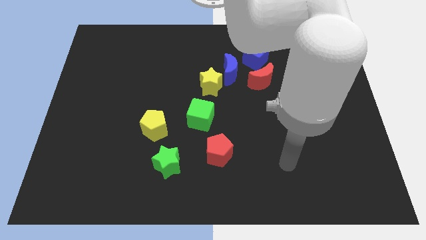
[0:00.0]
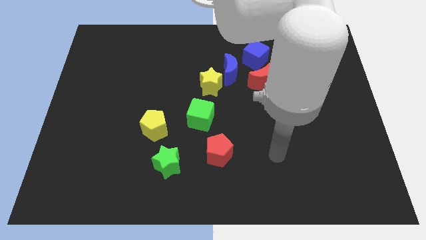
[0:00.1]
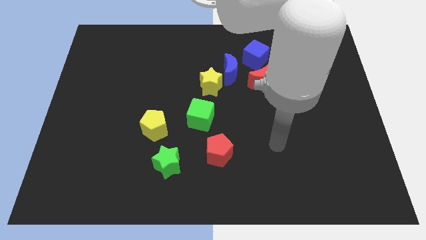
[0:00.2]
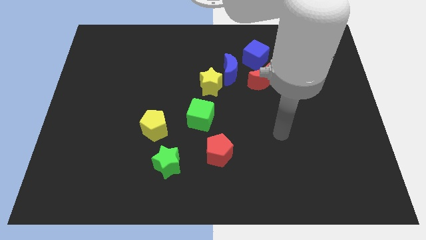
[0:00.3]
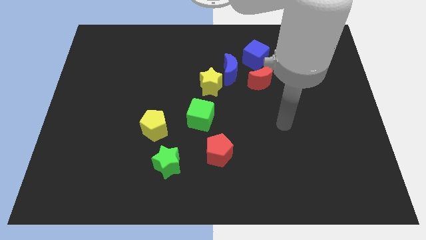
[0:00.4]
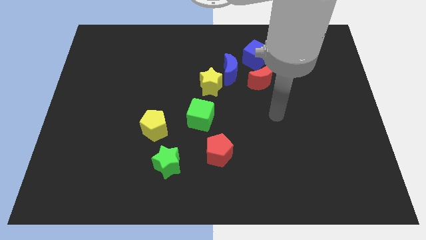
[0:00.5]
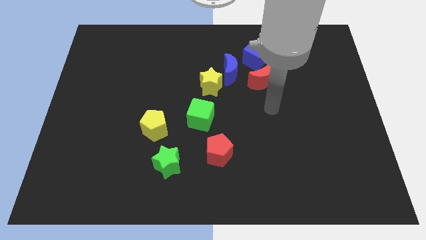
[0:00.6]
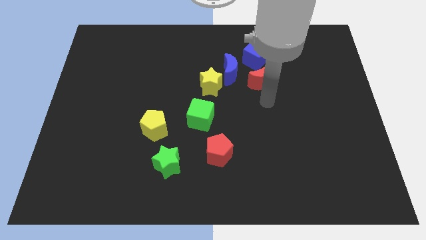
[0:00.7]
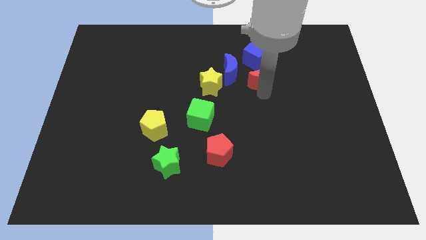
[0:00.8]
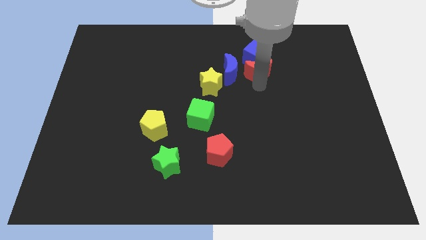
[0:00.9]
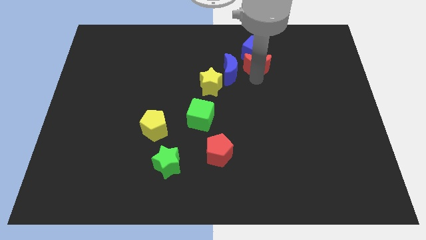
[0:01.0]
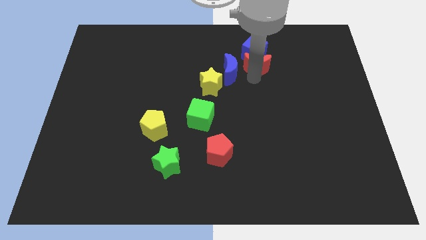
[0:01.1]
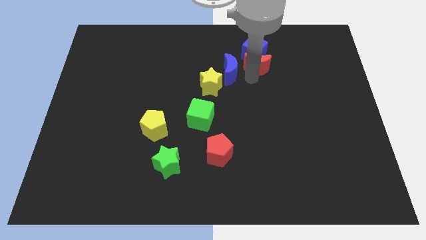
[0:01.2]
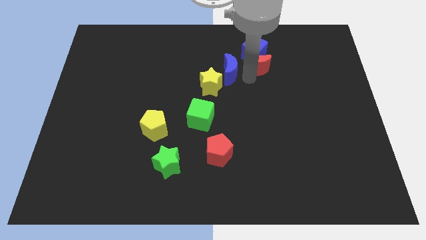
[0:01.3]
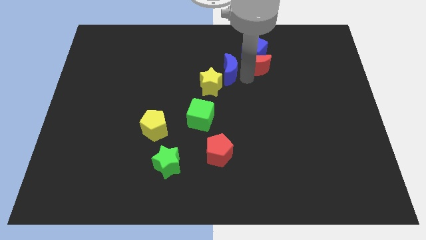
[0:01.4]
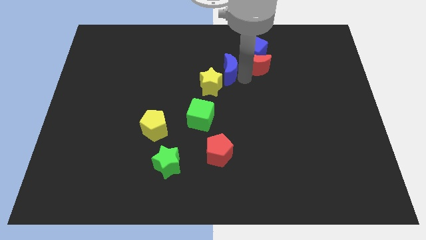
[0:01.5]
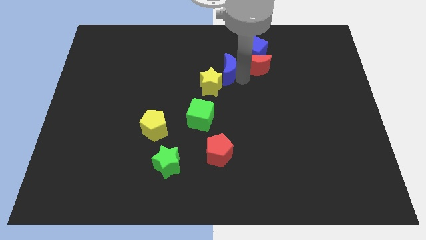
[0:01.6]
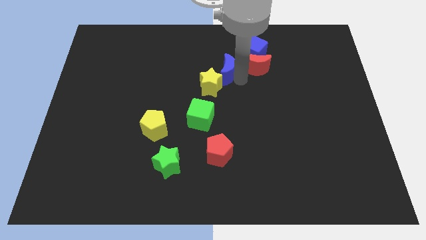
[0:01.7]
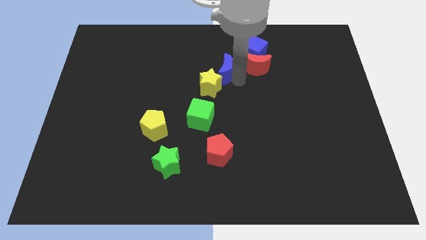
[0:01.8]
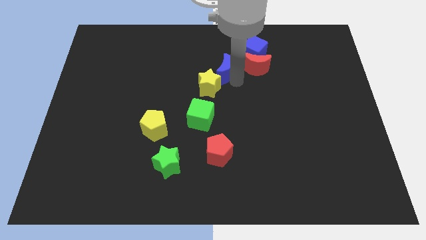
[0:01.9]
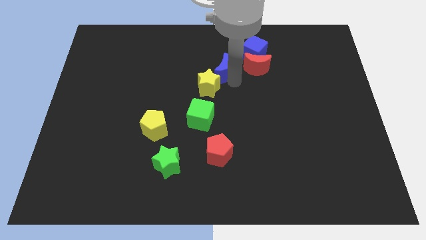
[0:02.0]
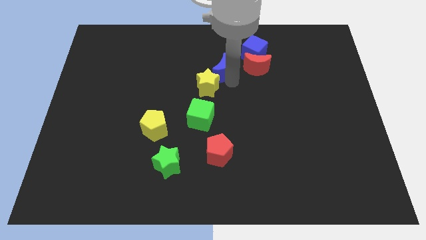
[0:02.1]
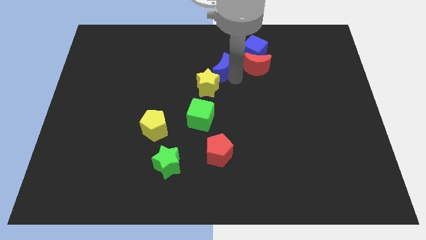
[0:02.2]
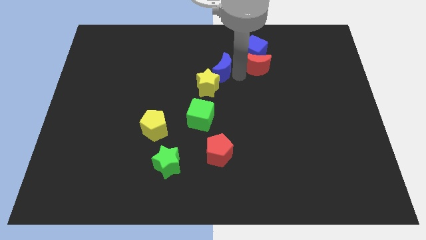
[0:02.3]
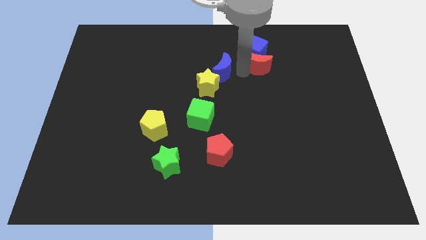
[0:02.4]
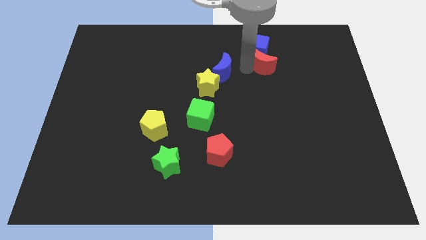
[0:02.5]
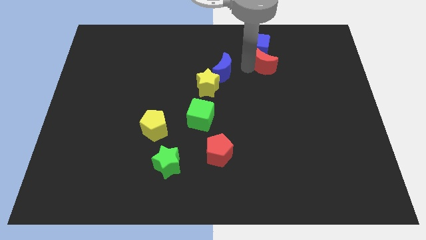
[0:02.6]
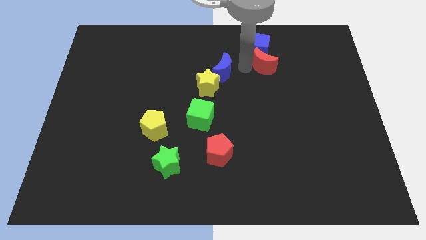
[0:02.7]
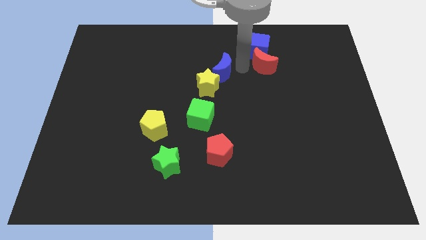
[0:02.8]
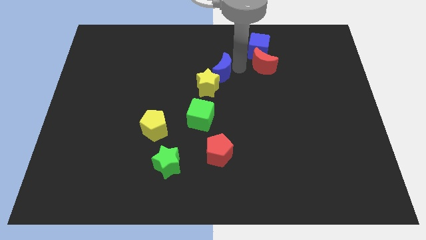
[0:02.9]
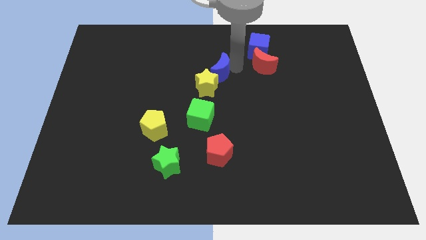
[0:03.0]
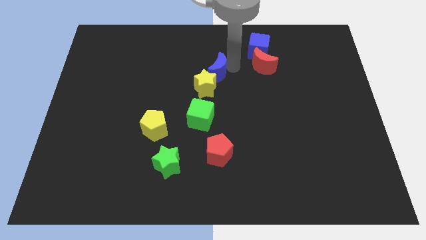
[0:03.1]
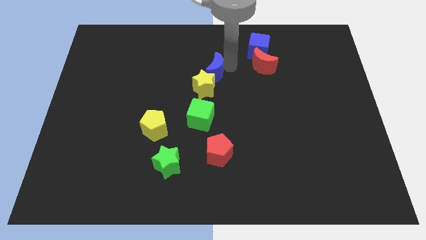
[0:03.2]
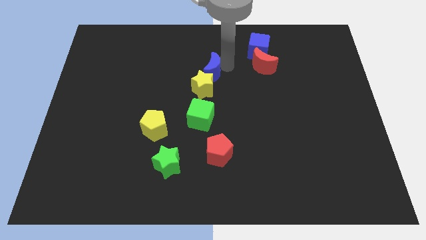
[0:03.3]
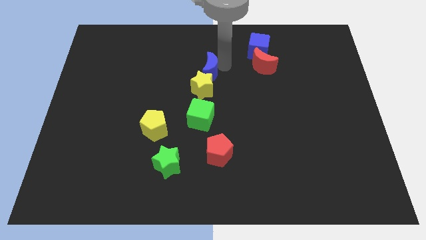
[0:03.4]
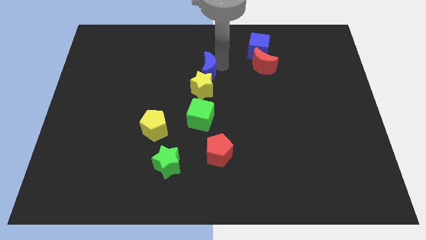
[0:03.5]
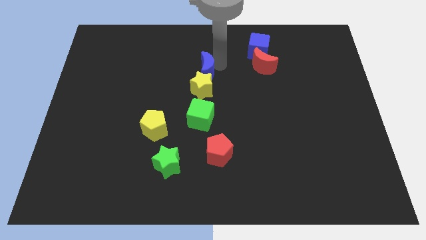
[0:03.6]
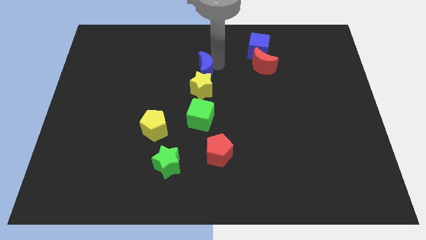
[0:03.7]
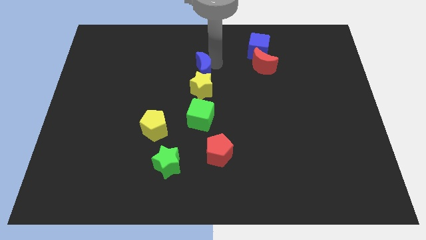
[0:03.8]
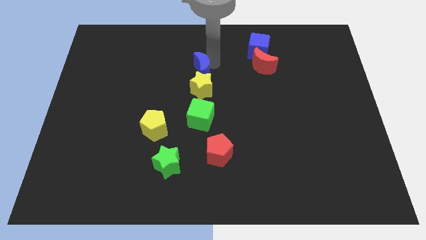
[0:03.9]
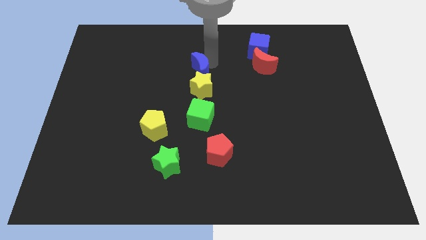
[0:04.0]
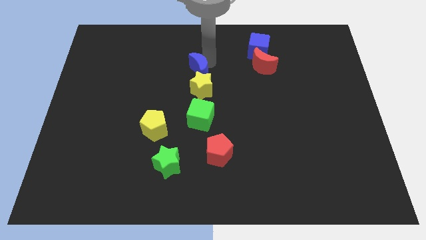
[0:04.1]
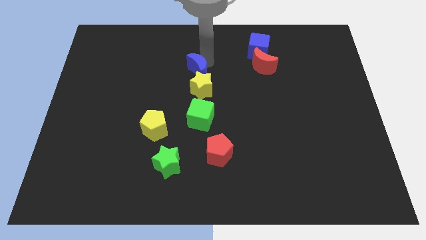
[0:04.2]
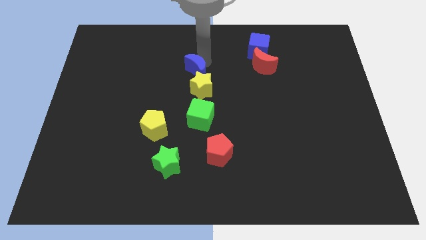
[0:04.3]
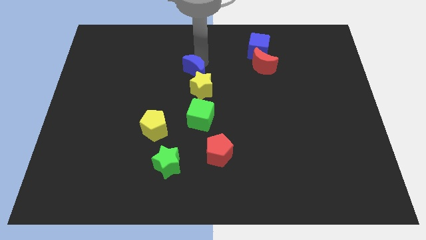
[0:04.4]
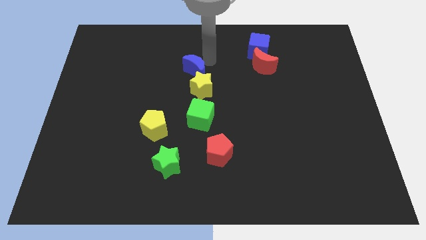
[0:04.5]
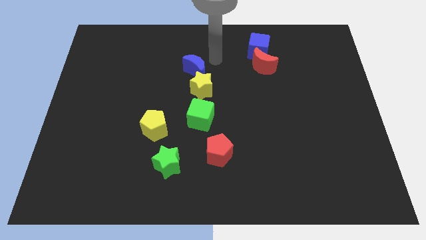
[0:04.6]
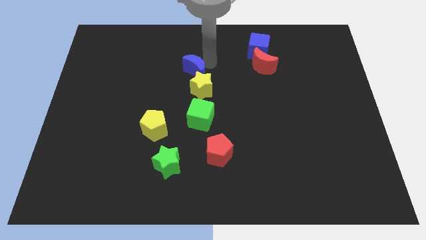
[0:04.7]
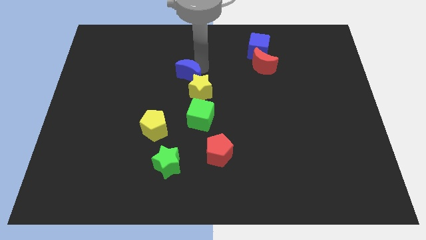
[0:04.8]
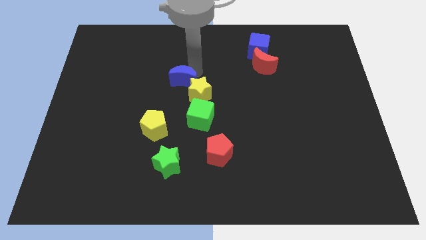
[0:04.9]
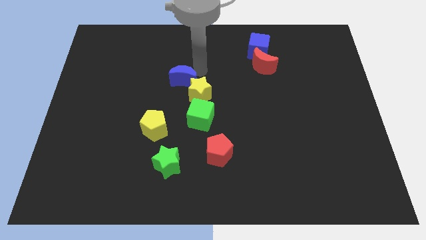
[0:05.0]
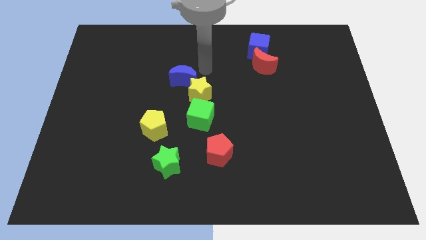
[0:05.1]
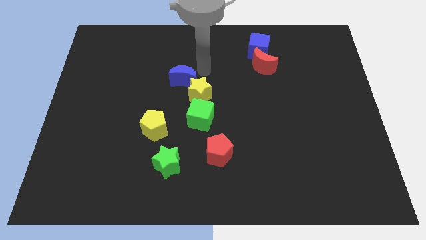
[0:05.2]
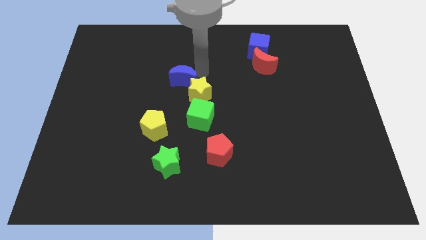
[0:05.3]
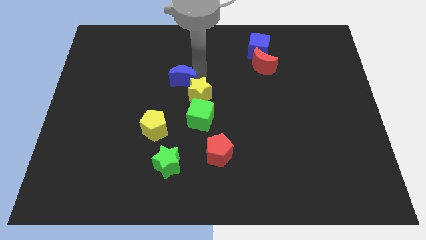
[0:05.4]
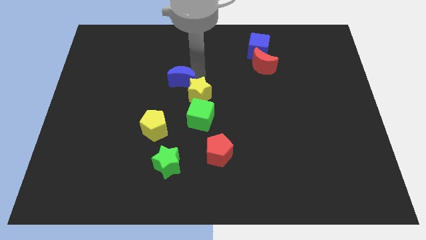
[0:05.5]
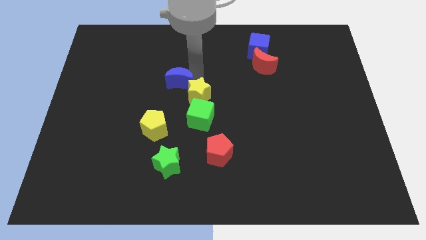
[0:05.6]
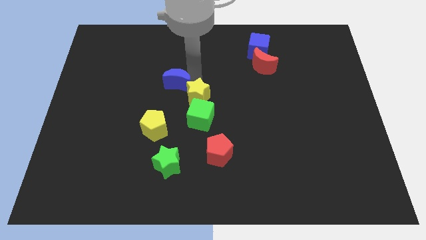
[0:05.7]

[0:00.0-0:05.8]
move the blue moon above the yellow pentagon

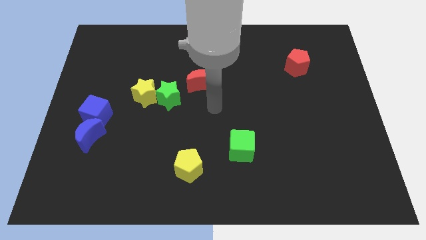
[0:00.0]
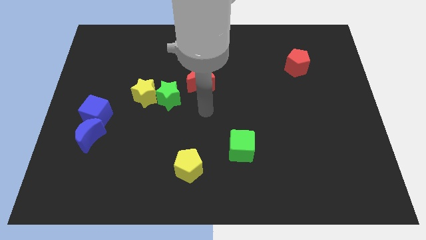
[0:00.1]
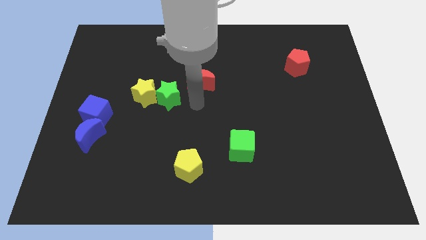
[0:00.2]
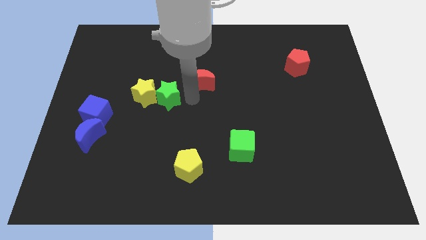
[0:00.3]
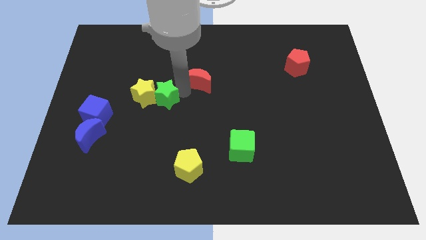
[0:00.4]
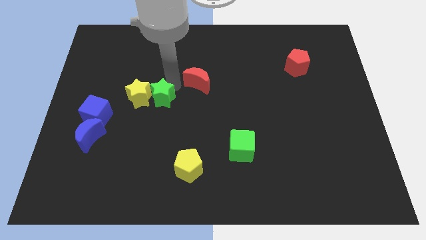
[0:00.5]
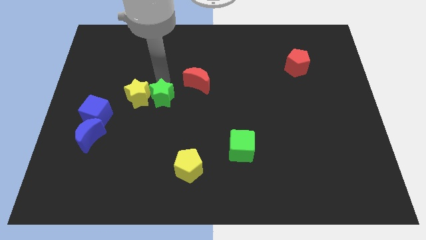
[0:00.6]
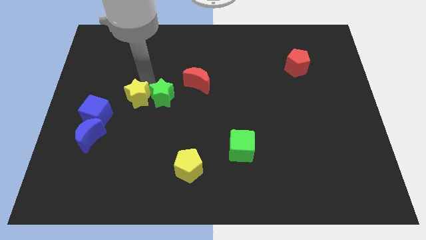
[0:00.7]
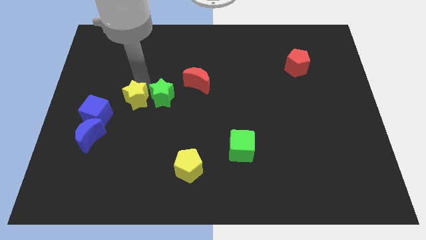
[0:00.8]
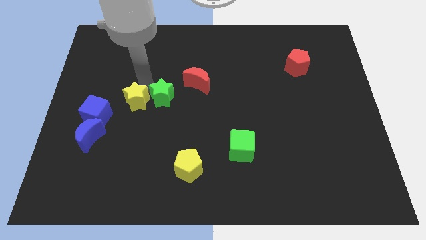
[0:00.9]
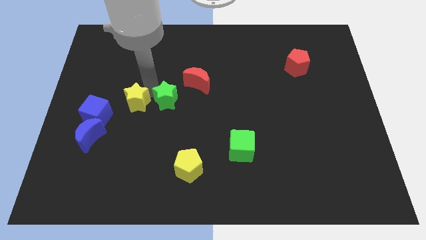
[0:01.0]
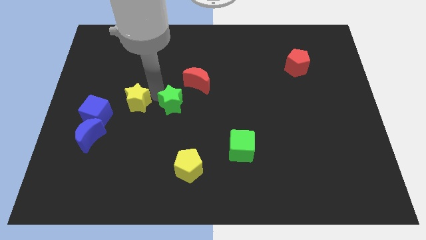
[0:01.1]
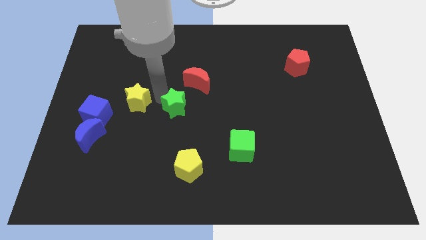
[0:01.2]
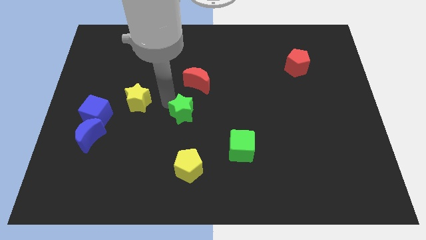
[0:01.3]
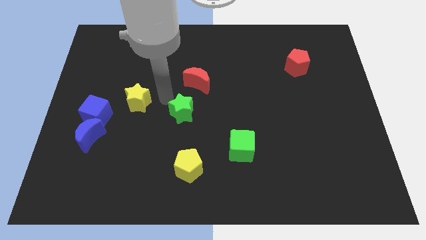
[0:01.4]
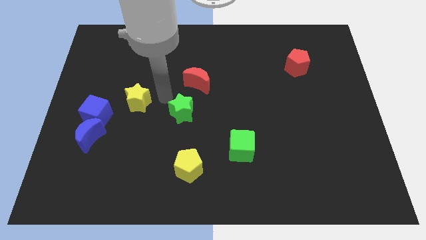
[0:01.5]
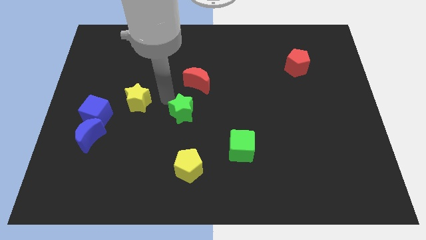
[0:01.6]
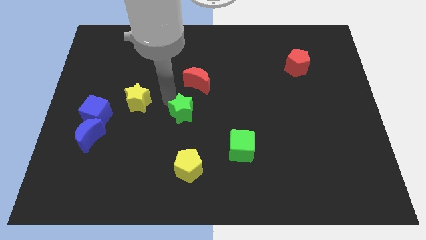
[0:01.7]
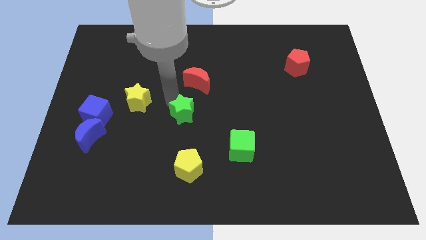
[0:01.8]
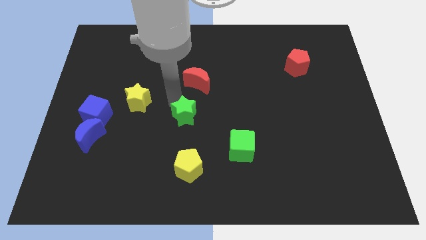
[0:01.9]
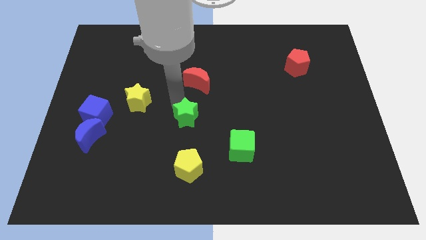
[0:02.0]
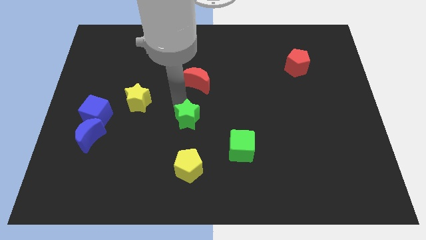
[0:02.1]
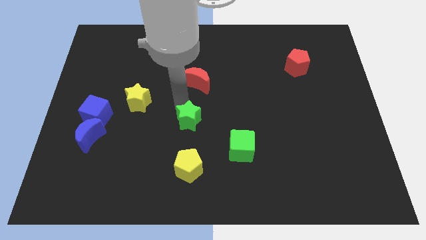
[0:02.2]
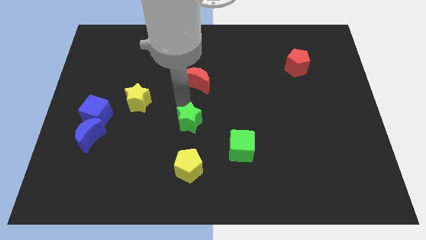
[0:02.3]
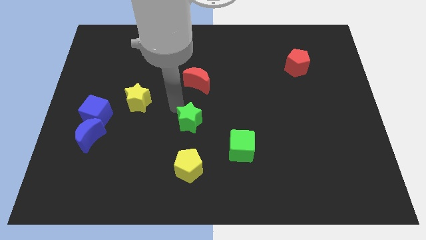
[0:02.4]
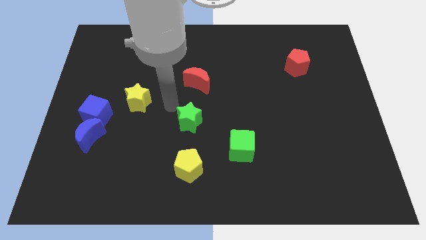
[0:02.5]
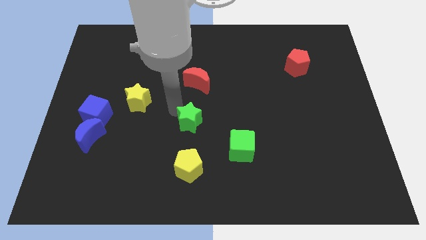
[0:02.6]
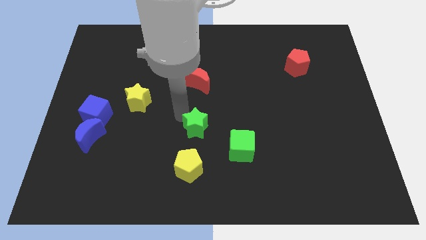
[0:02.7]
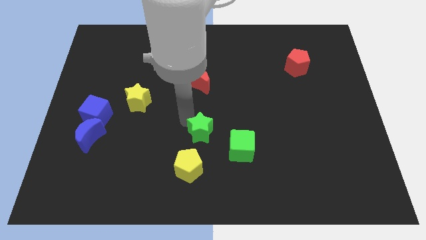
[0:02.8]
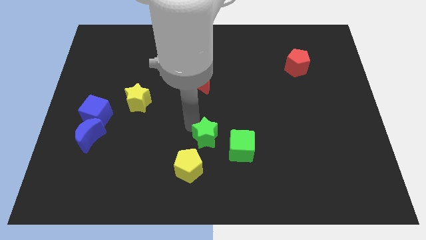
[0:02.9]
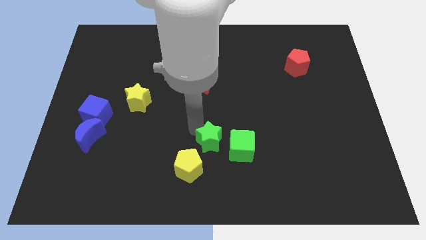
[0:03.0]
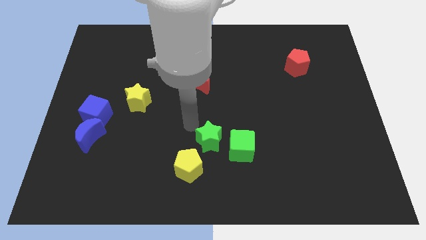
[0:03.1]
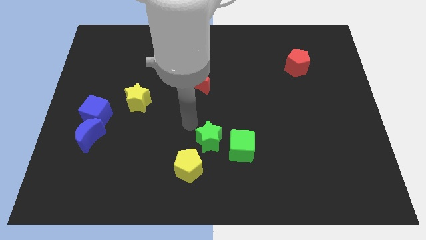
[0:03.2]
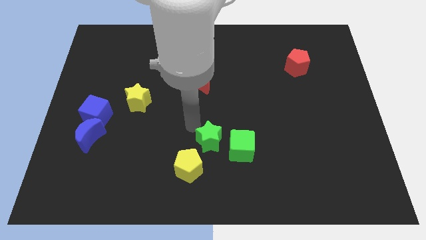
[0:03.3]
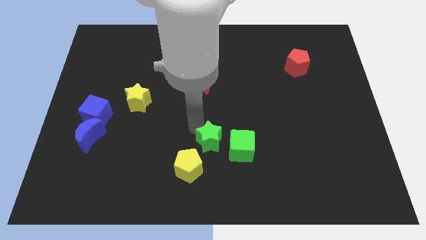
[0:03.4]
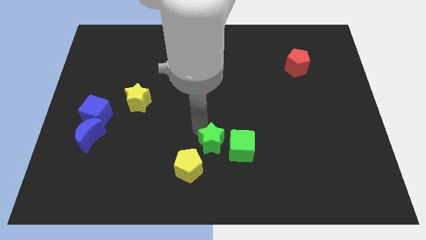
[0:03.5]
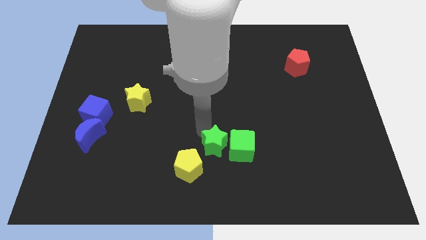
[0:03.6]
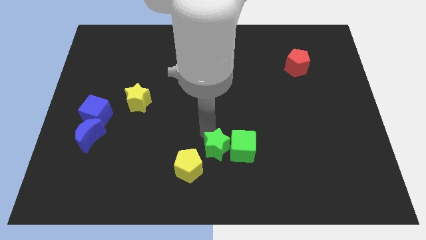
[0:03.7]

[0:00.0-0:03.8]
put the green star to the right side of the yellow pentagon
